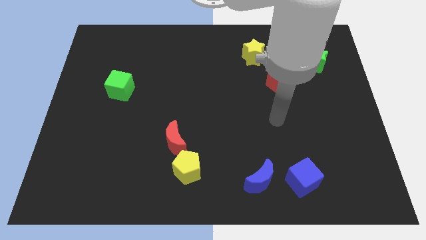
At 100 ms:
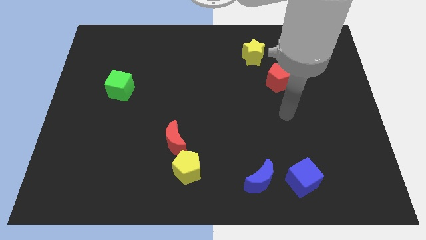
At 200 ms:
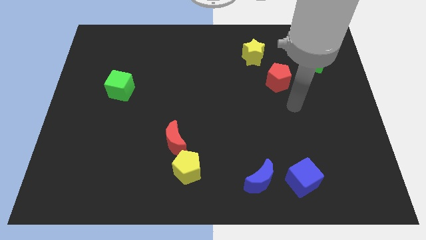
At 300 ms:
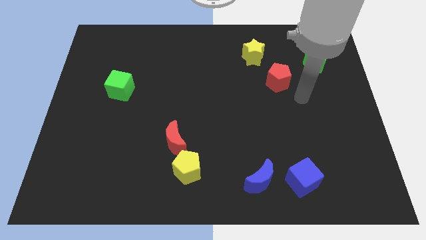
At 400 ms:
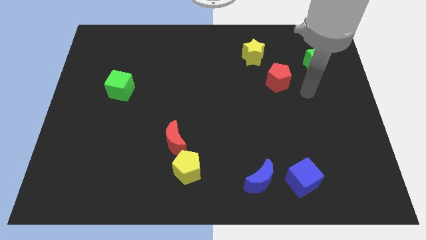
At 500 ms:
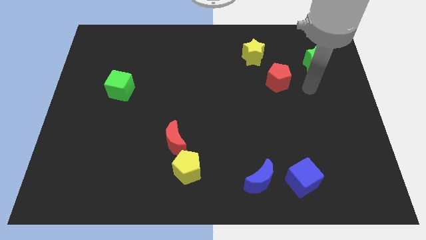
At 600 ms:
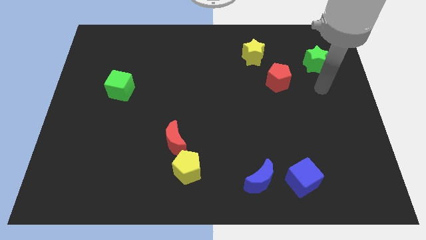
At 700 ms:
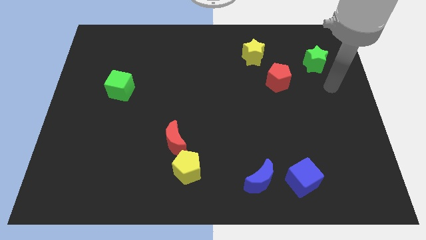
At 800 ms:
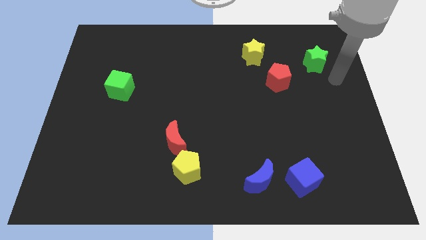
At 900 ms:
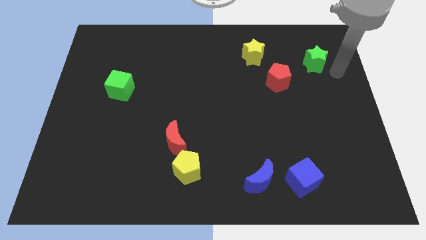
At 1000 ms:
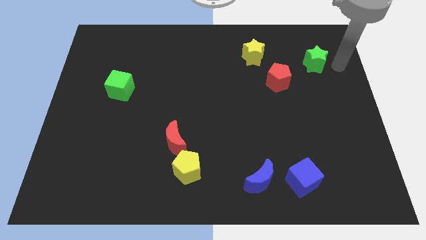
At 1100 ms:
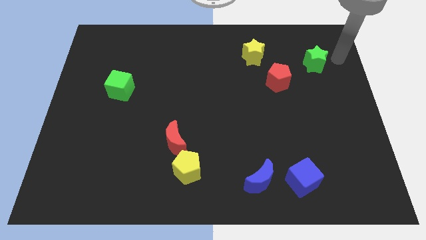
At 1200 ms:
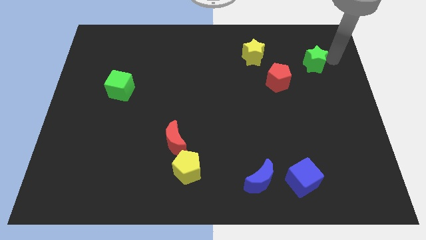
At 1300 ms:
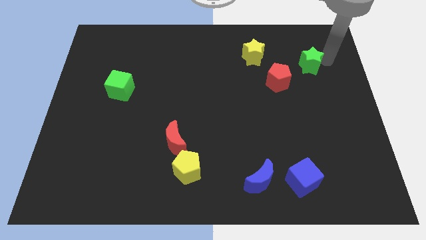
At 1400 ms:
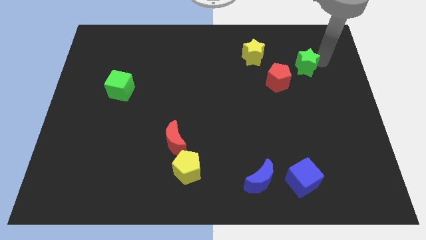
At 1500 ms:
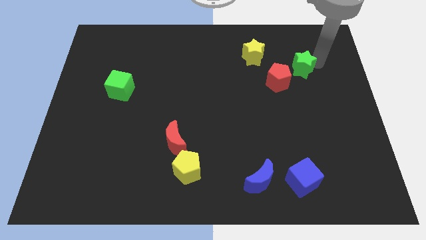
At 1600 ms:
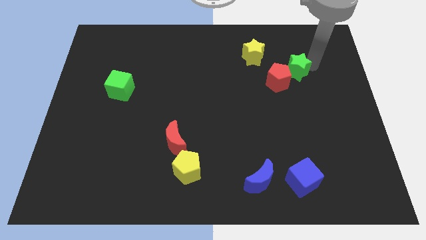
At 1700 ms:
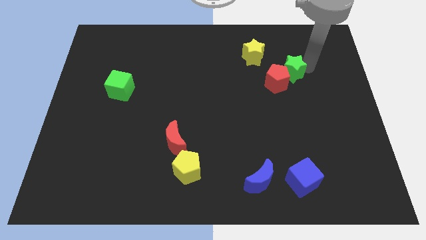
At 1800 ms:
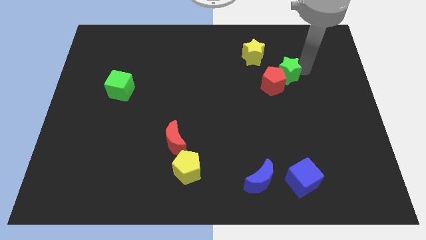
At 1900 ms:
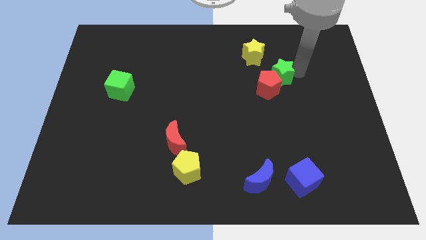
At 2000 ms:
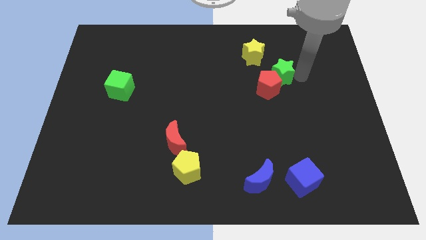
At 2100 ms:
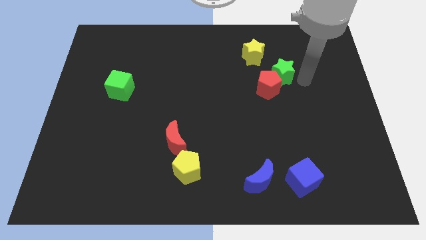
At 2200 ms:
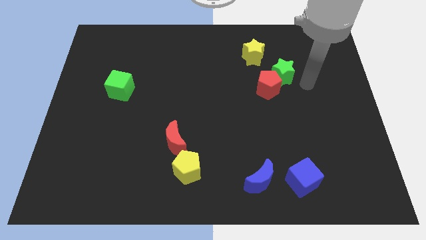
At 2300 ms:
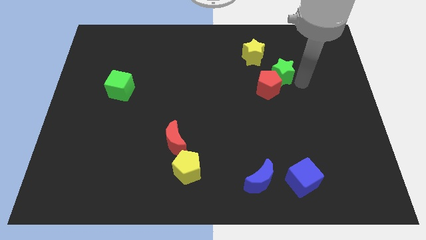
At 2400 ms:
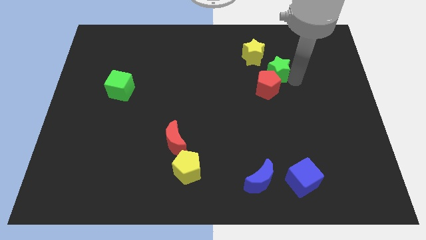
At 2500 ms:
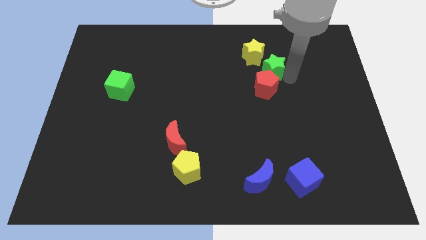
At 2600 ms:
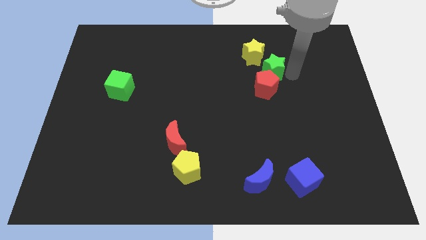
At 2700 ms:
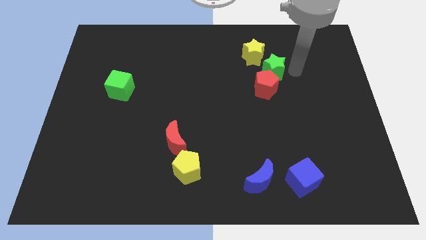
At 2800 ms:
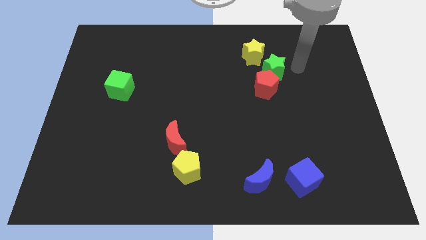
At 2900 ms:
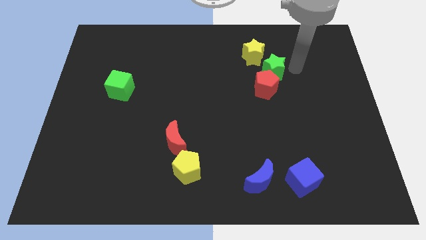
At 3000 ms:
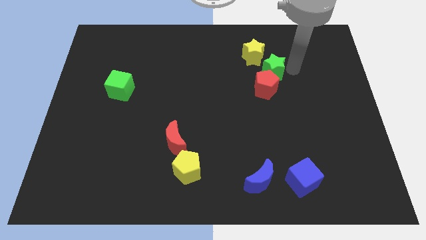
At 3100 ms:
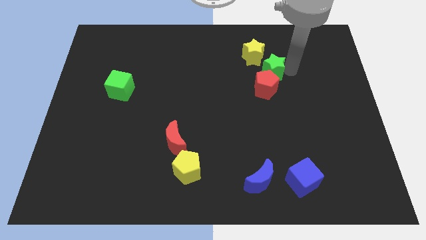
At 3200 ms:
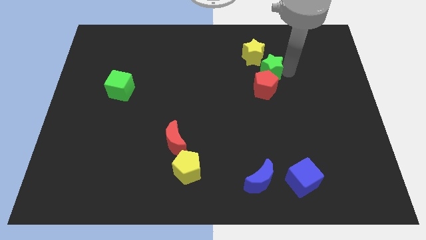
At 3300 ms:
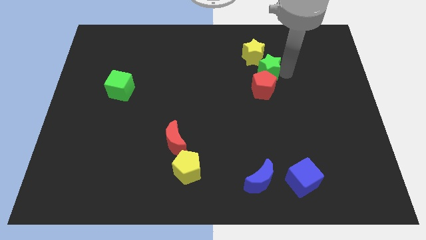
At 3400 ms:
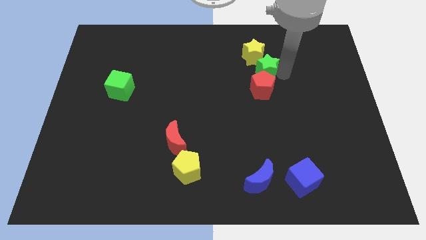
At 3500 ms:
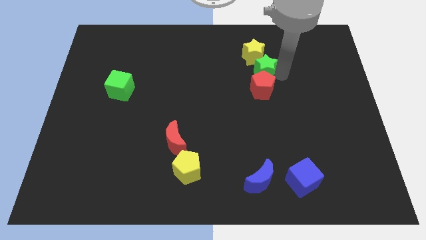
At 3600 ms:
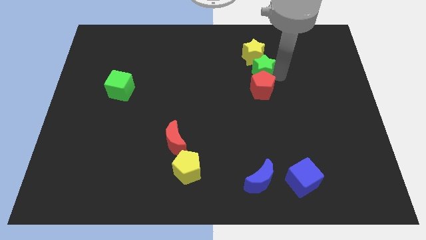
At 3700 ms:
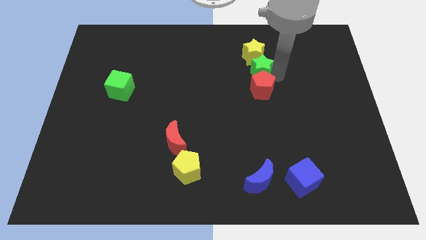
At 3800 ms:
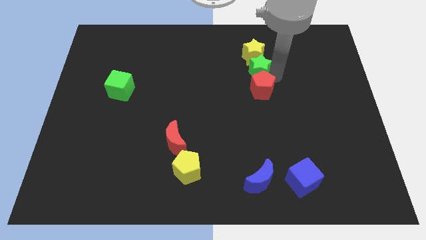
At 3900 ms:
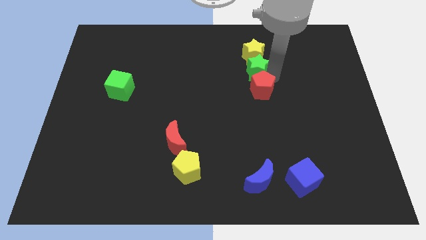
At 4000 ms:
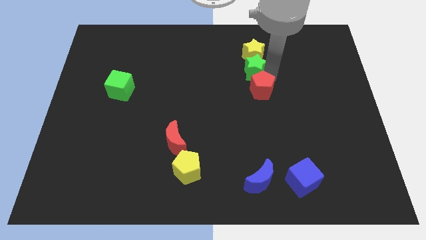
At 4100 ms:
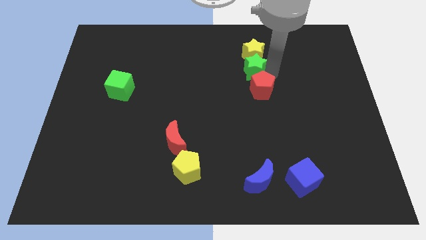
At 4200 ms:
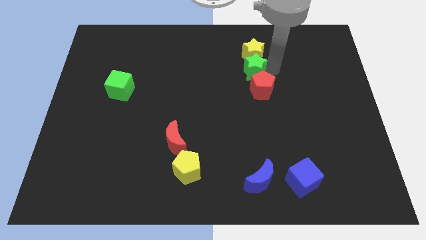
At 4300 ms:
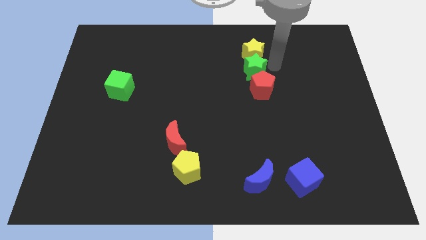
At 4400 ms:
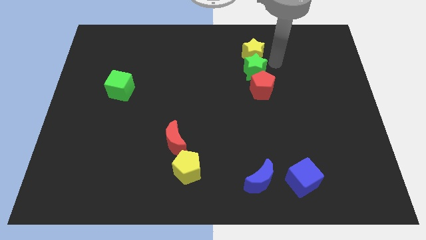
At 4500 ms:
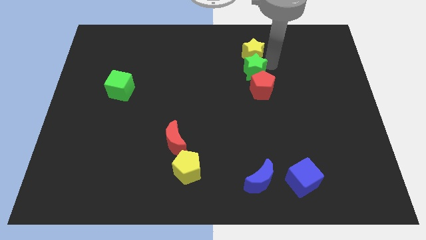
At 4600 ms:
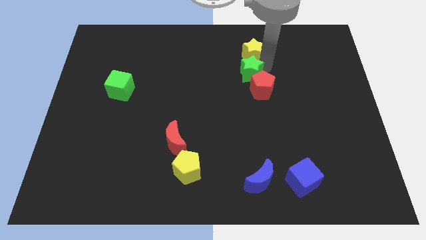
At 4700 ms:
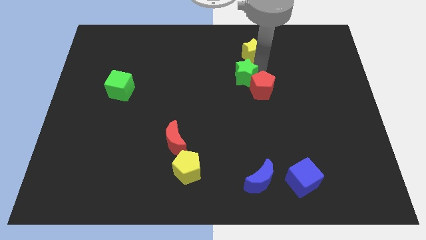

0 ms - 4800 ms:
push the green star to the middle of the board

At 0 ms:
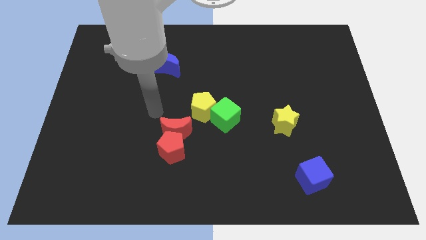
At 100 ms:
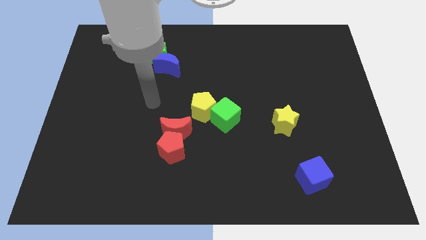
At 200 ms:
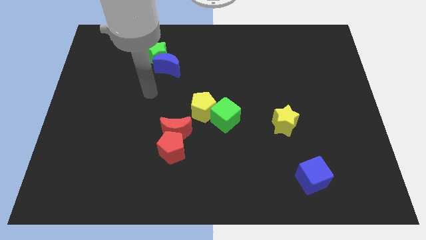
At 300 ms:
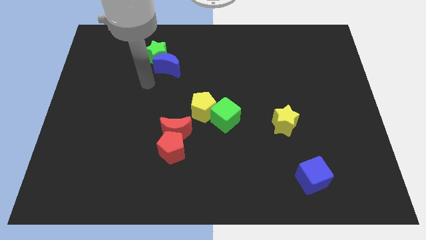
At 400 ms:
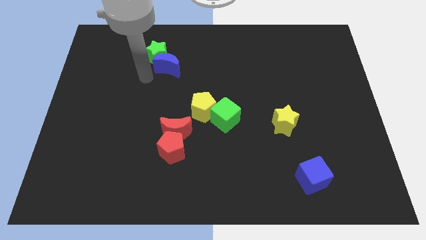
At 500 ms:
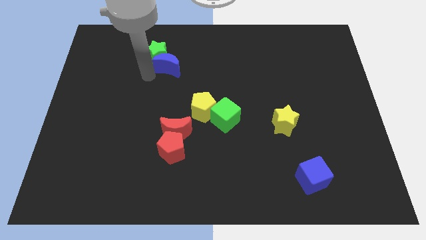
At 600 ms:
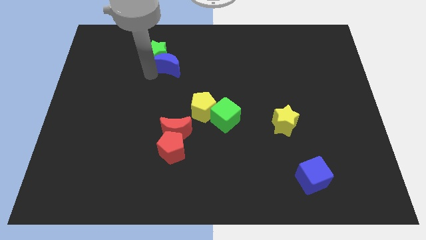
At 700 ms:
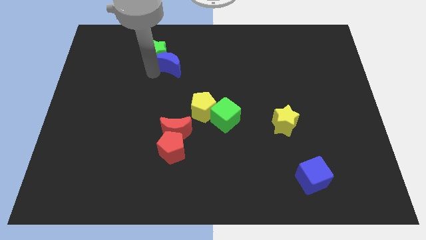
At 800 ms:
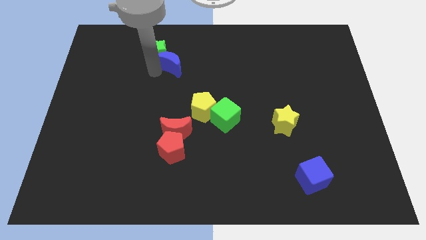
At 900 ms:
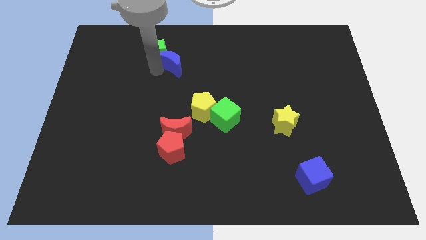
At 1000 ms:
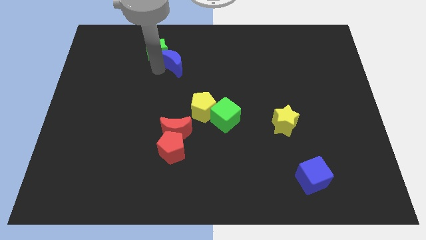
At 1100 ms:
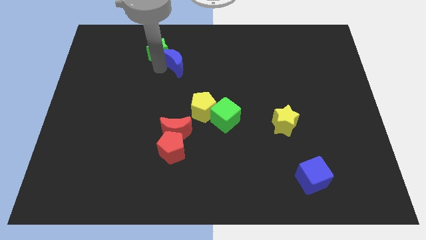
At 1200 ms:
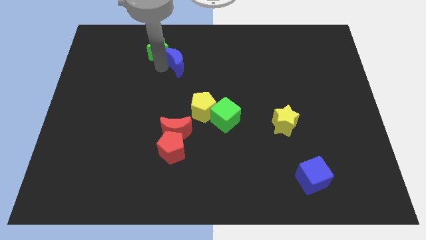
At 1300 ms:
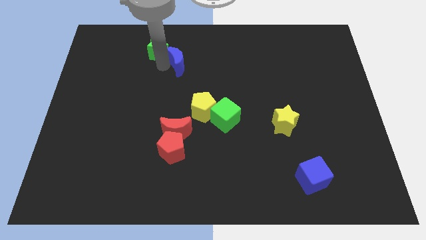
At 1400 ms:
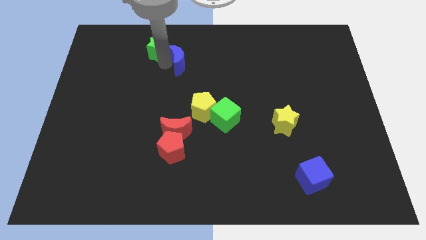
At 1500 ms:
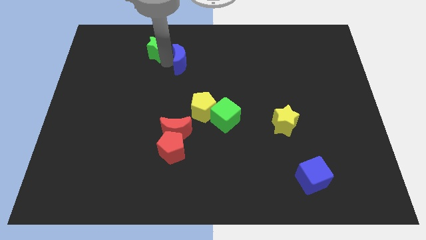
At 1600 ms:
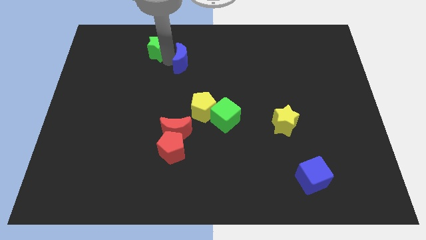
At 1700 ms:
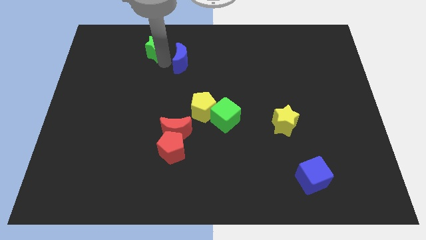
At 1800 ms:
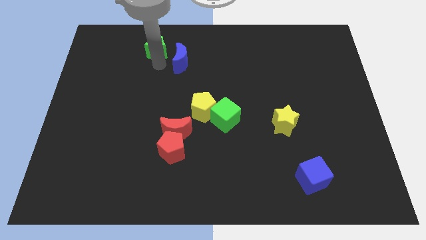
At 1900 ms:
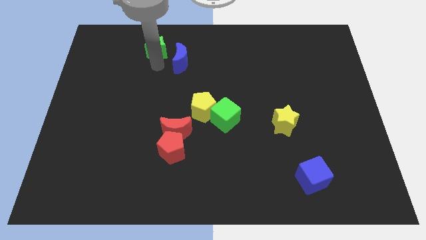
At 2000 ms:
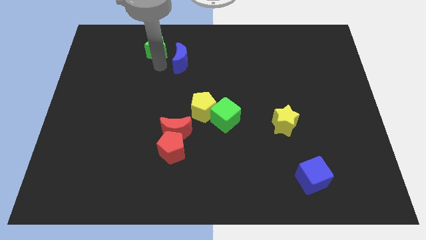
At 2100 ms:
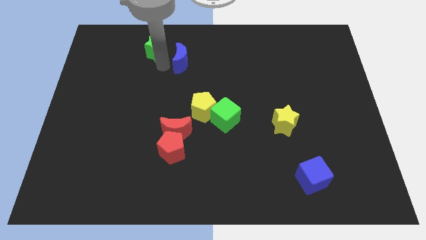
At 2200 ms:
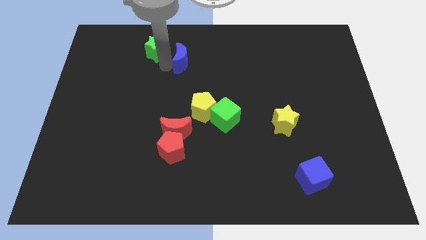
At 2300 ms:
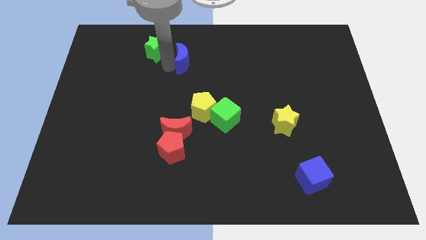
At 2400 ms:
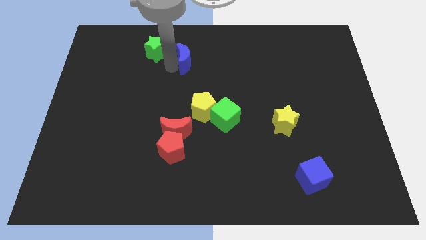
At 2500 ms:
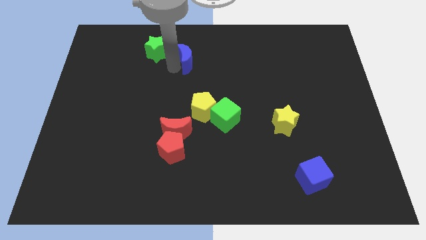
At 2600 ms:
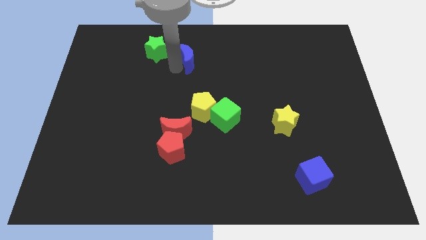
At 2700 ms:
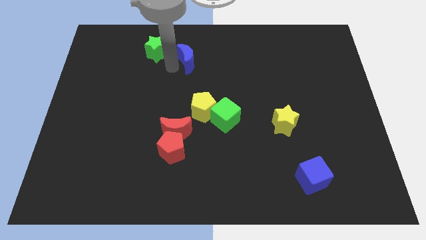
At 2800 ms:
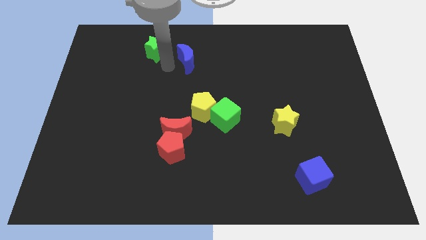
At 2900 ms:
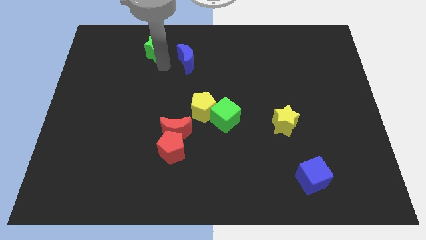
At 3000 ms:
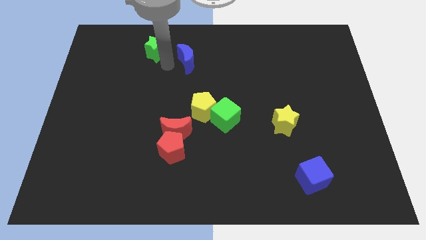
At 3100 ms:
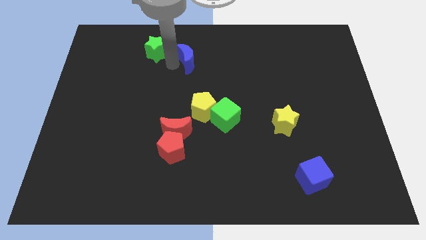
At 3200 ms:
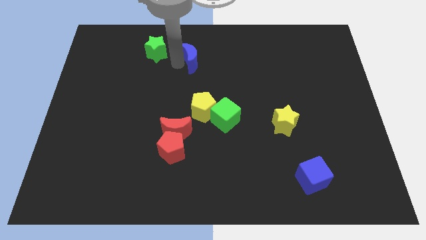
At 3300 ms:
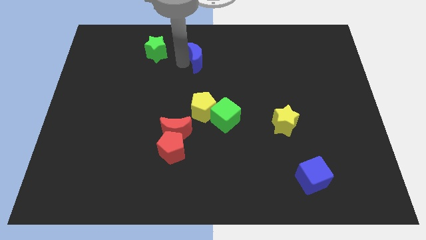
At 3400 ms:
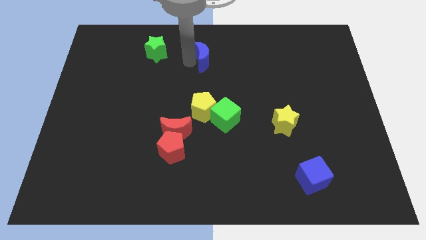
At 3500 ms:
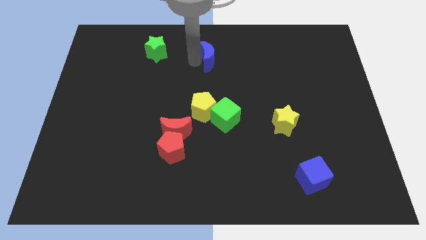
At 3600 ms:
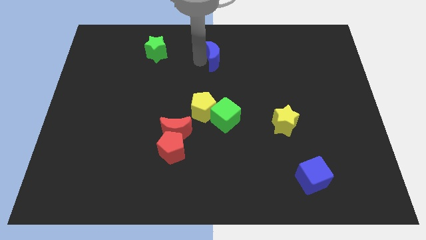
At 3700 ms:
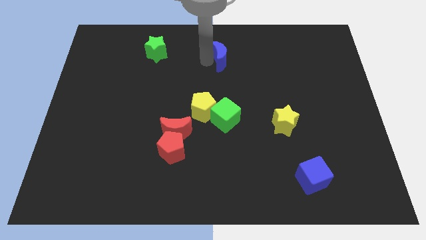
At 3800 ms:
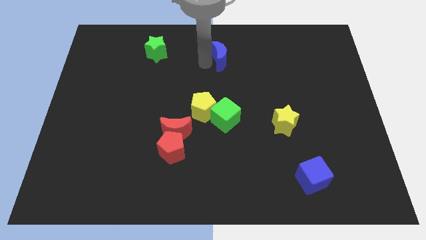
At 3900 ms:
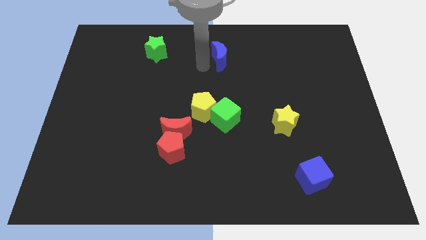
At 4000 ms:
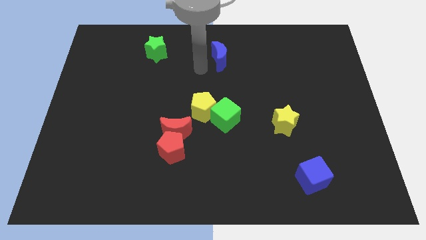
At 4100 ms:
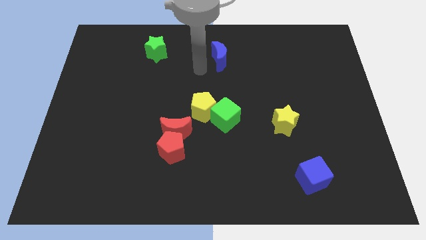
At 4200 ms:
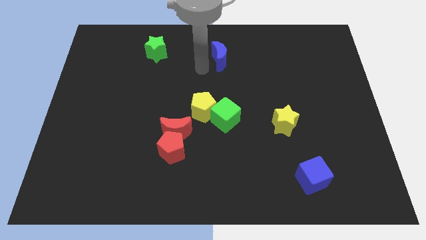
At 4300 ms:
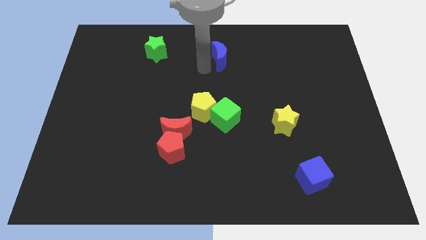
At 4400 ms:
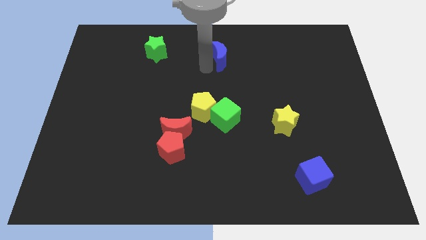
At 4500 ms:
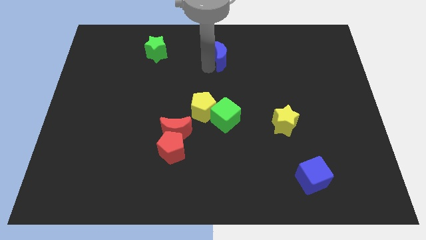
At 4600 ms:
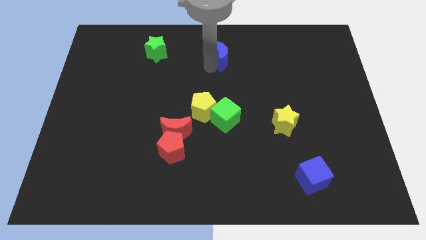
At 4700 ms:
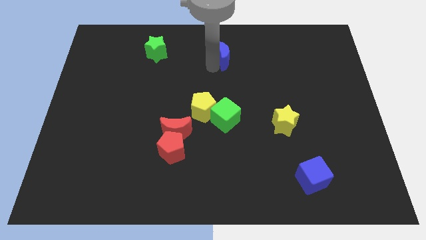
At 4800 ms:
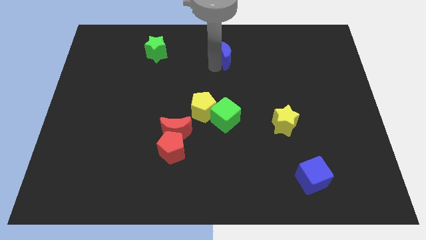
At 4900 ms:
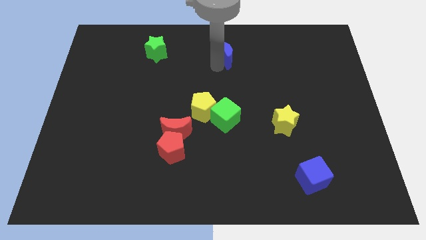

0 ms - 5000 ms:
move the blue moon to the towards your base
